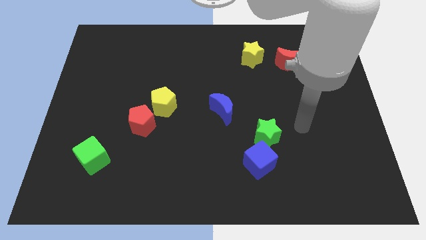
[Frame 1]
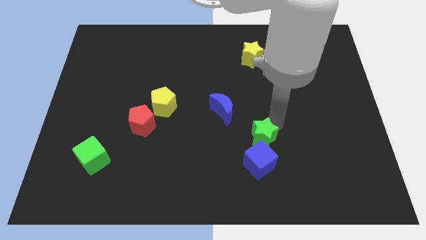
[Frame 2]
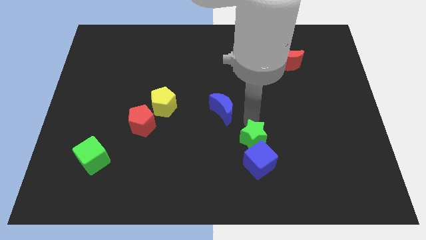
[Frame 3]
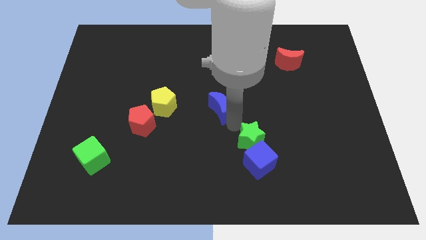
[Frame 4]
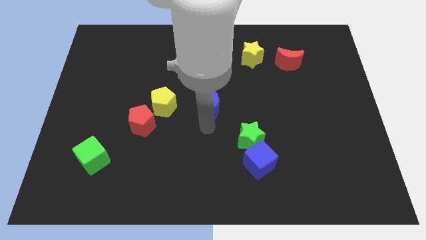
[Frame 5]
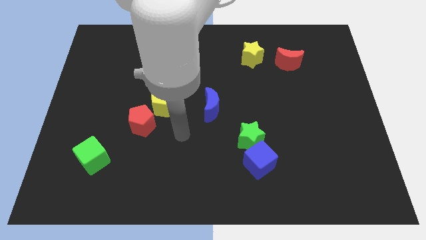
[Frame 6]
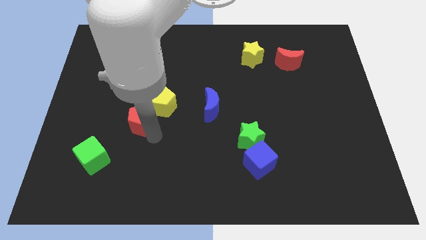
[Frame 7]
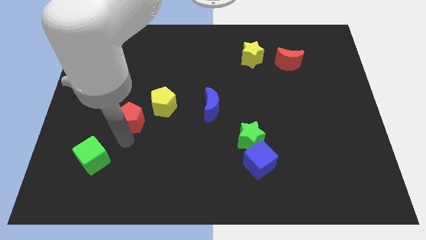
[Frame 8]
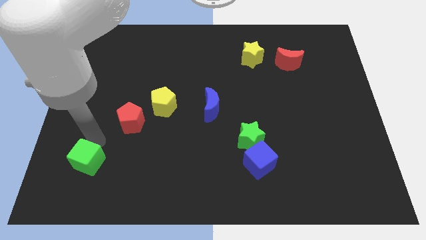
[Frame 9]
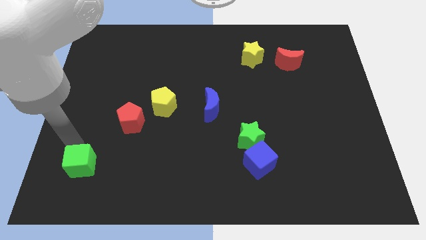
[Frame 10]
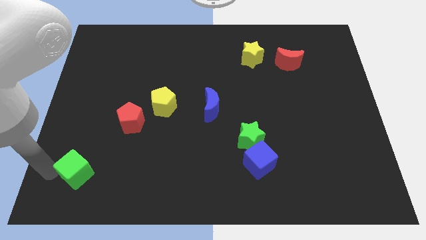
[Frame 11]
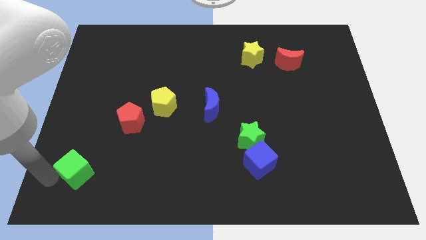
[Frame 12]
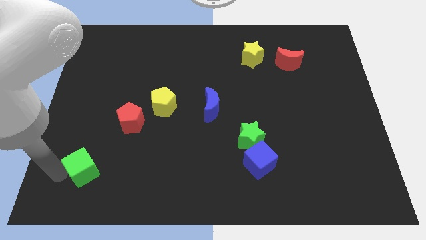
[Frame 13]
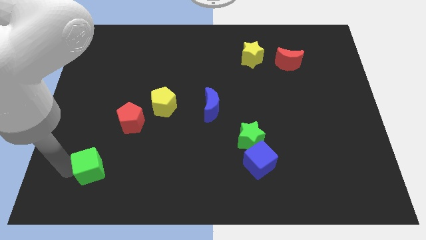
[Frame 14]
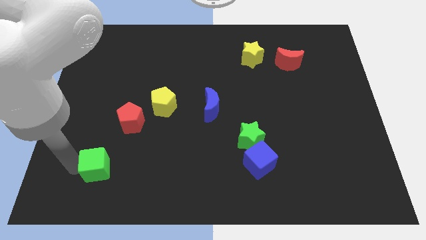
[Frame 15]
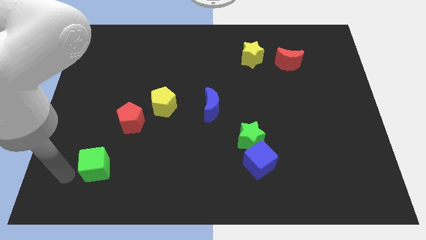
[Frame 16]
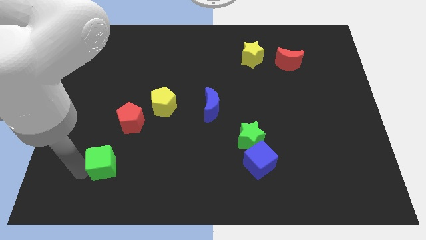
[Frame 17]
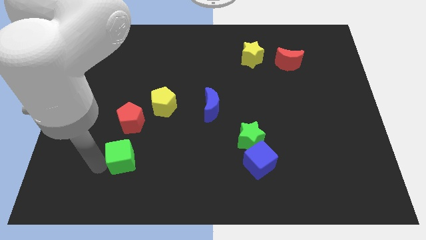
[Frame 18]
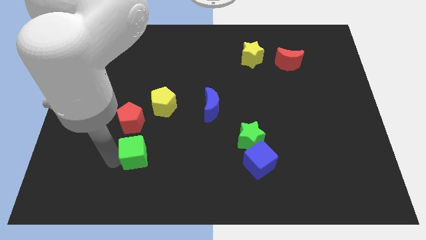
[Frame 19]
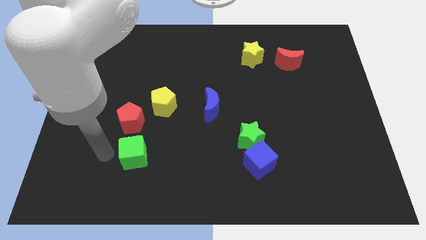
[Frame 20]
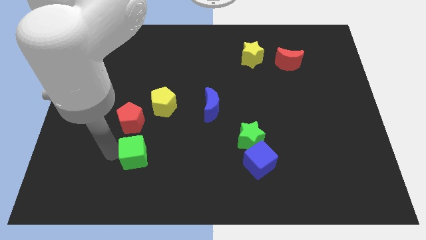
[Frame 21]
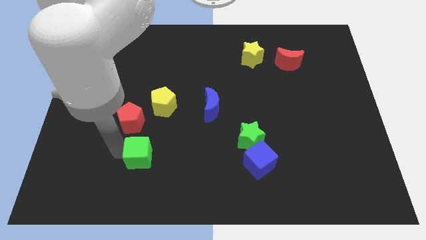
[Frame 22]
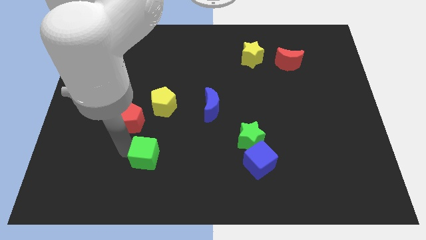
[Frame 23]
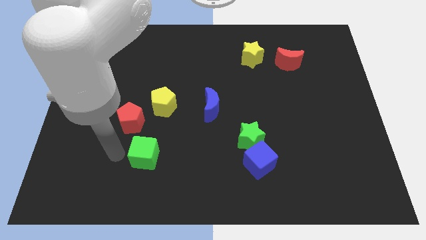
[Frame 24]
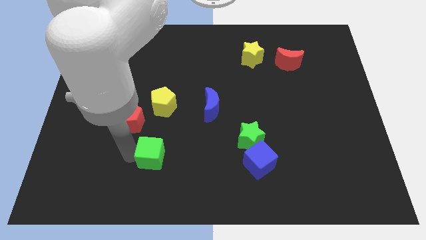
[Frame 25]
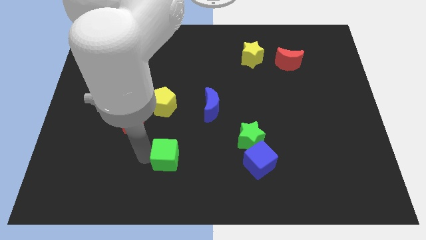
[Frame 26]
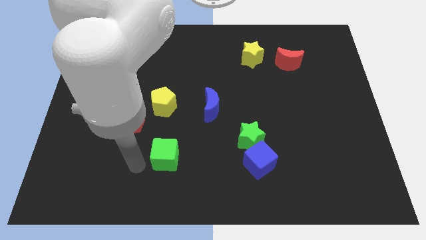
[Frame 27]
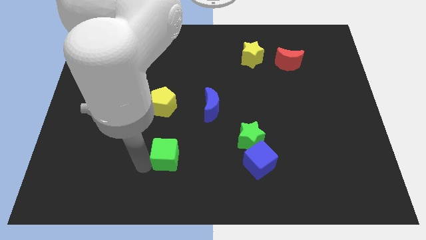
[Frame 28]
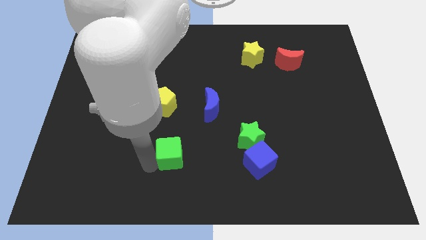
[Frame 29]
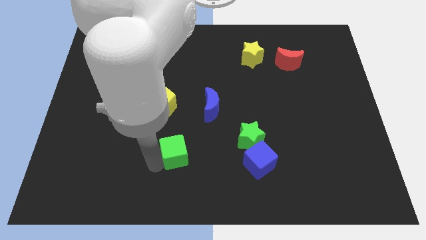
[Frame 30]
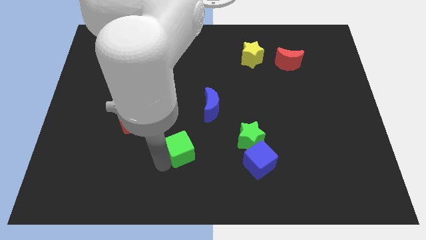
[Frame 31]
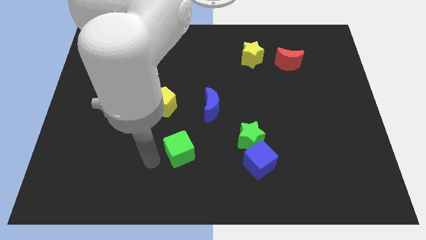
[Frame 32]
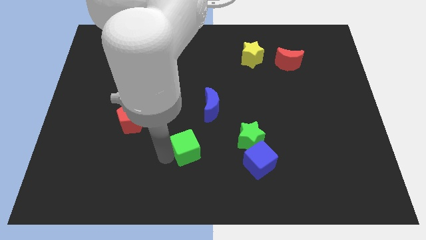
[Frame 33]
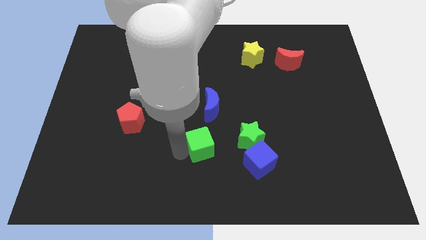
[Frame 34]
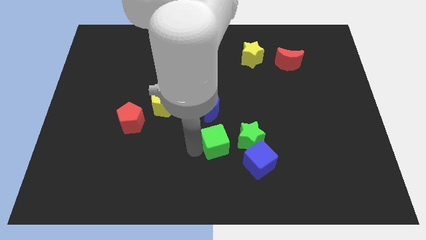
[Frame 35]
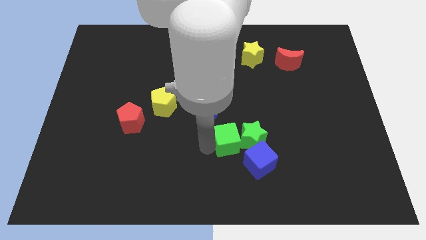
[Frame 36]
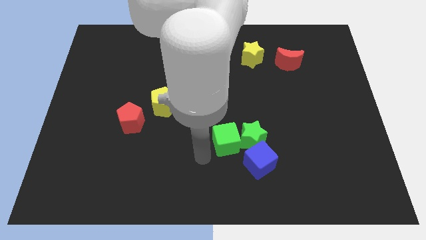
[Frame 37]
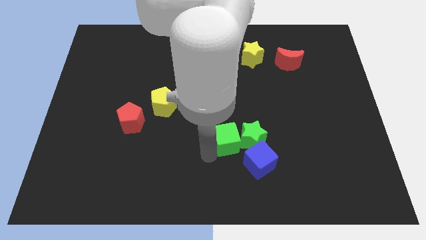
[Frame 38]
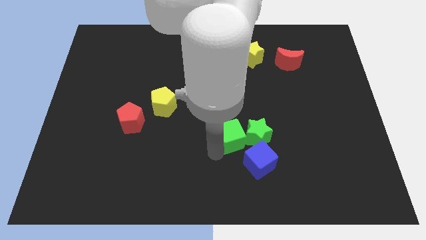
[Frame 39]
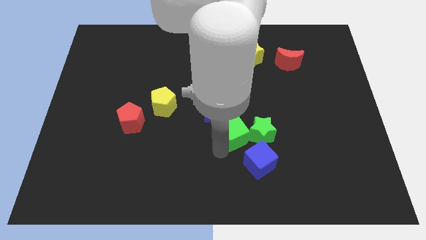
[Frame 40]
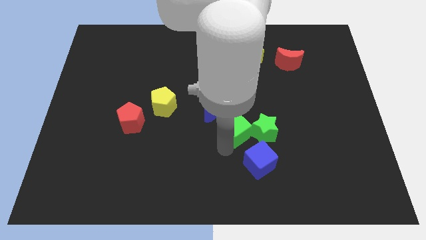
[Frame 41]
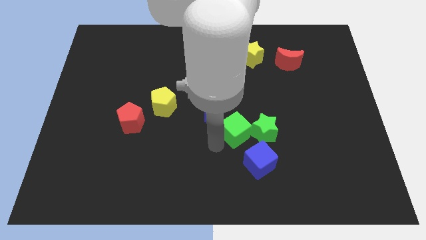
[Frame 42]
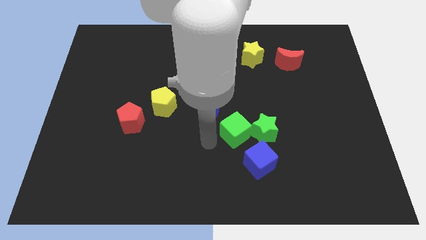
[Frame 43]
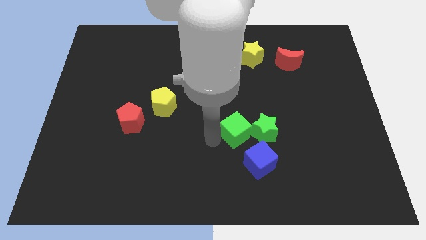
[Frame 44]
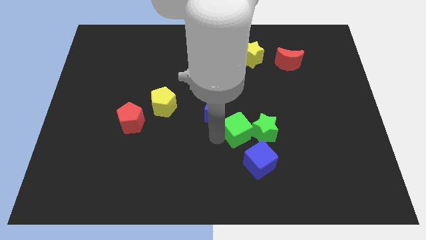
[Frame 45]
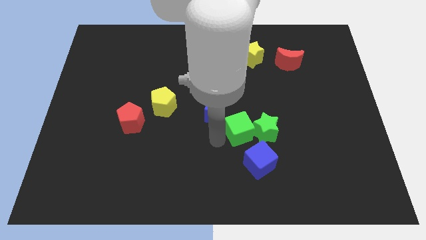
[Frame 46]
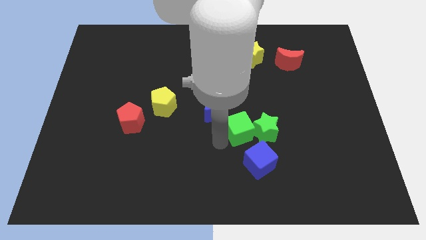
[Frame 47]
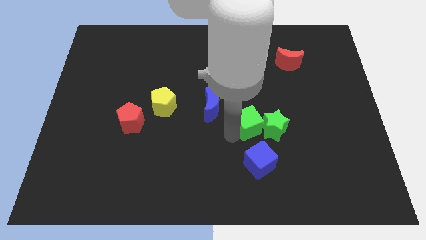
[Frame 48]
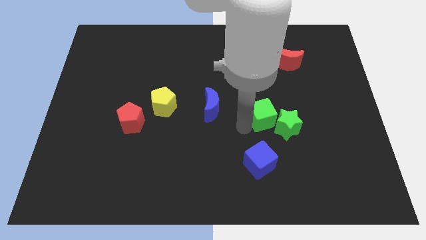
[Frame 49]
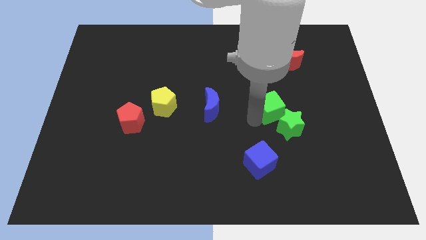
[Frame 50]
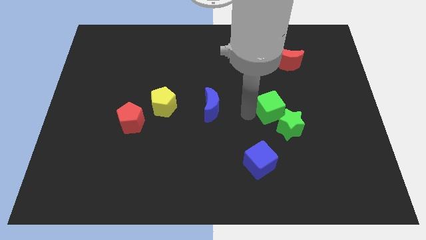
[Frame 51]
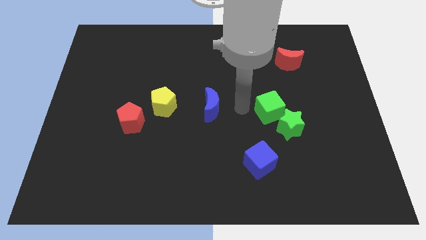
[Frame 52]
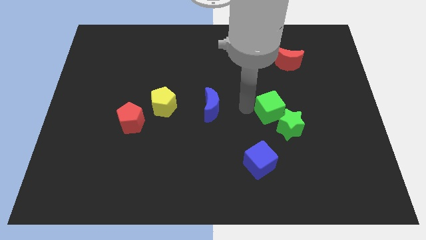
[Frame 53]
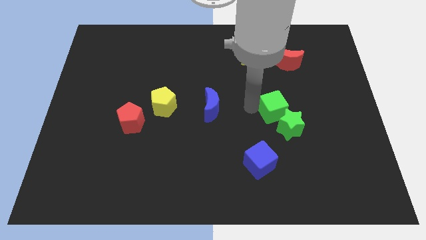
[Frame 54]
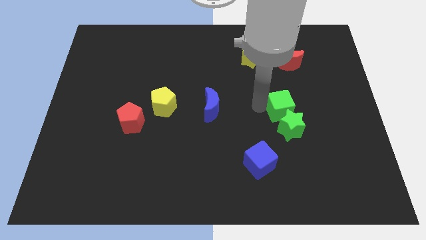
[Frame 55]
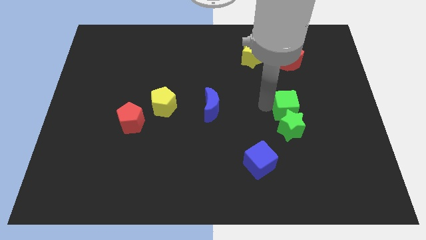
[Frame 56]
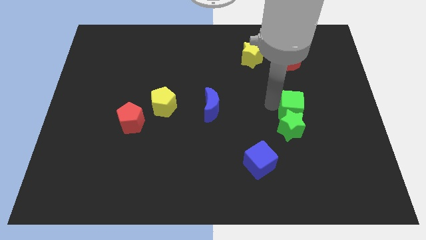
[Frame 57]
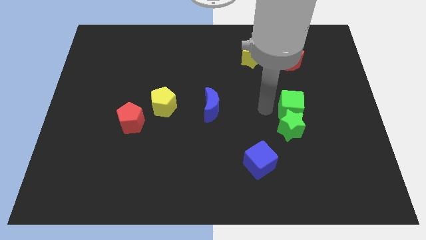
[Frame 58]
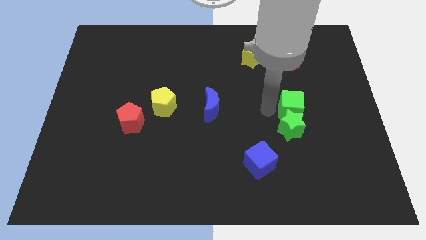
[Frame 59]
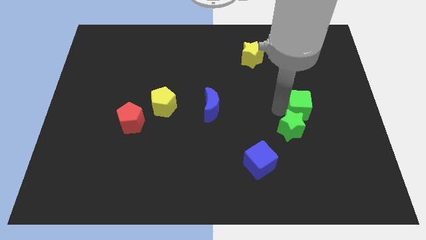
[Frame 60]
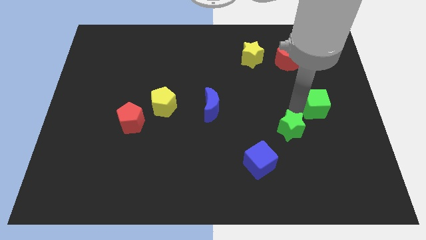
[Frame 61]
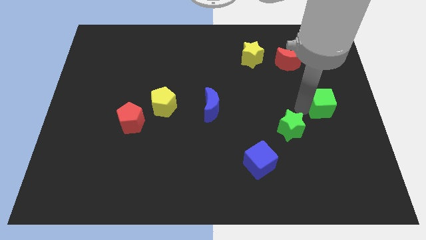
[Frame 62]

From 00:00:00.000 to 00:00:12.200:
push the green cube to the right side of the board
